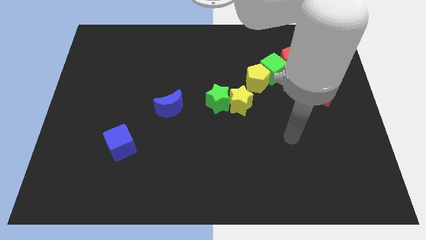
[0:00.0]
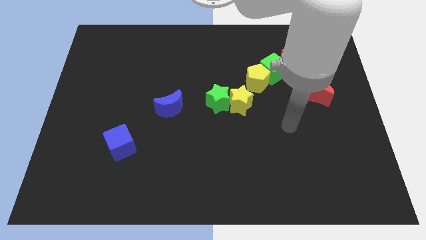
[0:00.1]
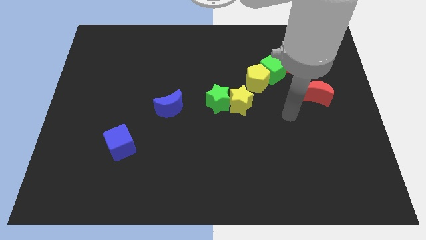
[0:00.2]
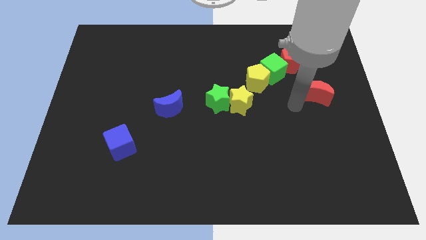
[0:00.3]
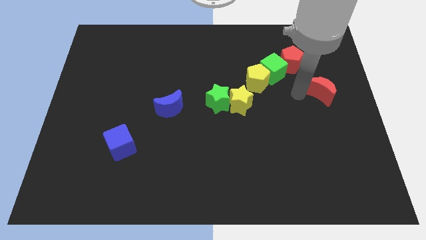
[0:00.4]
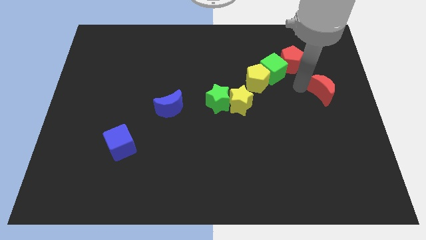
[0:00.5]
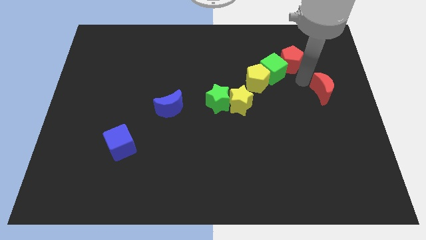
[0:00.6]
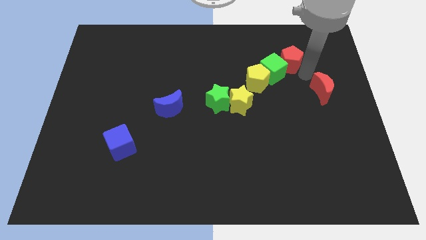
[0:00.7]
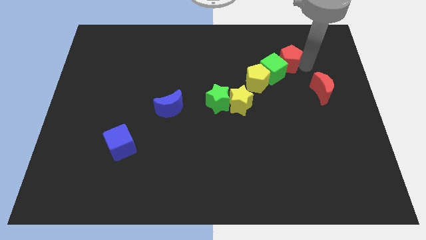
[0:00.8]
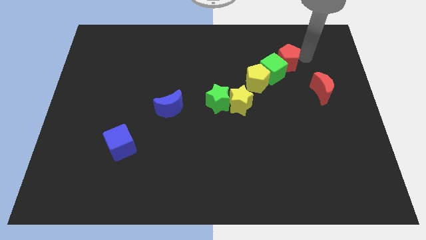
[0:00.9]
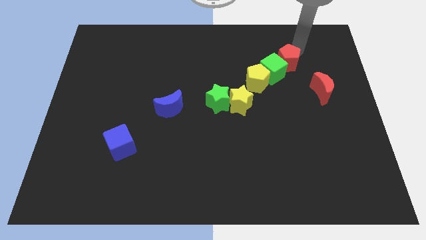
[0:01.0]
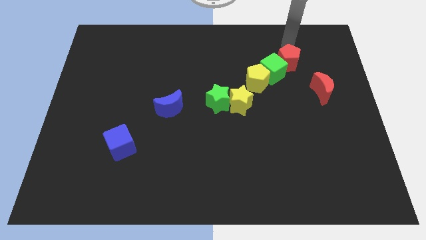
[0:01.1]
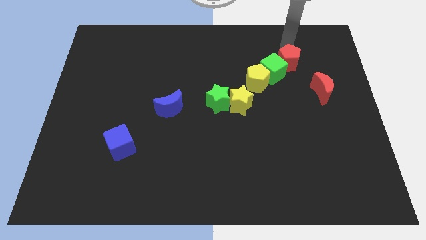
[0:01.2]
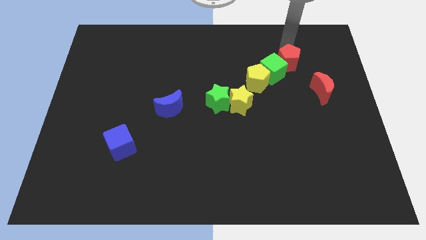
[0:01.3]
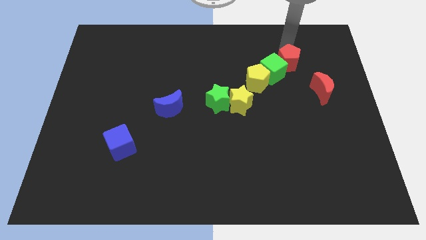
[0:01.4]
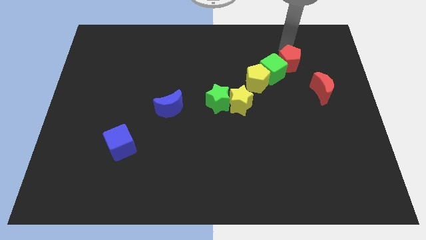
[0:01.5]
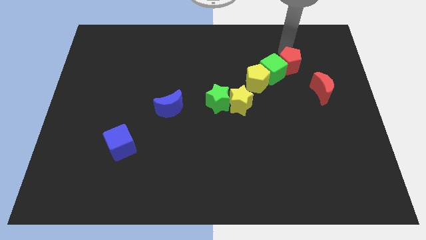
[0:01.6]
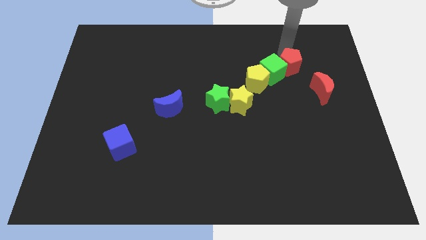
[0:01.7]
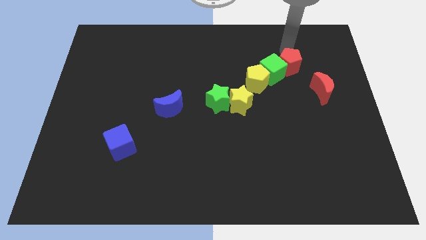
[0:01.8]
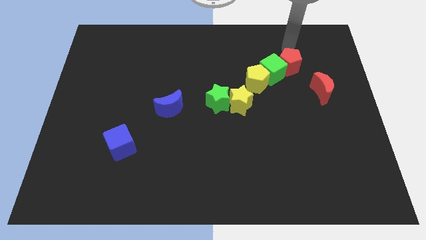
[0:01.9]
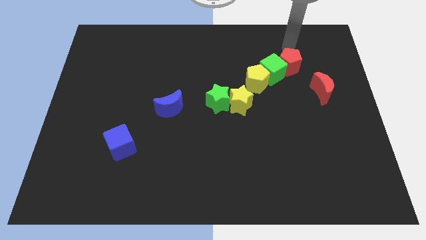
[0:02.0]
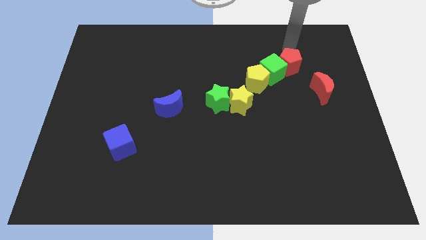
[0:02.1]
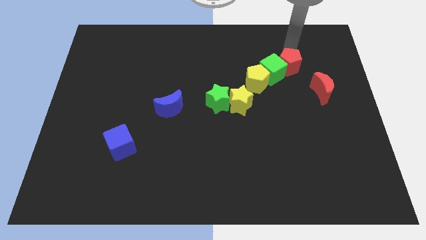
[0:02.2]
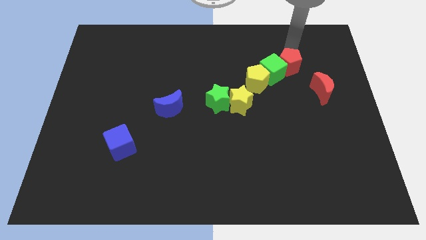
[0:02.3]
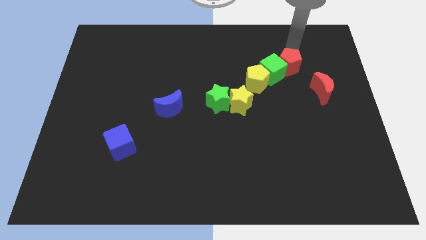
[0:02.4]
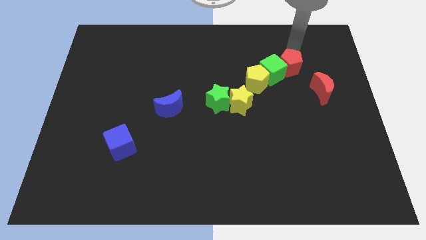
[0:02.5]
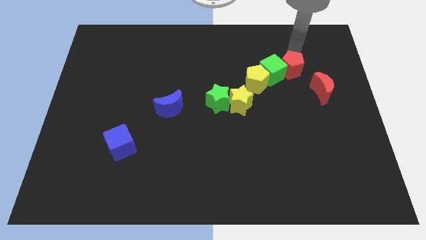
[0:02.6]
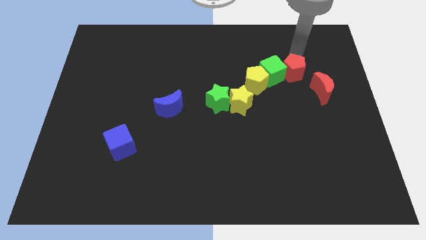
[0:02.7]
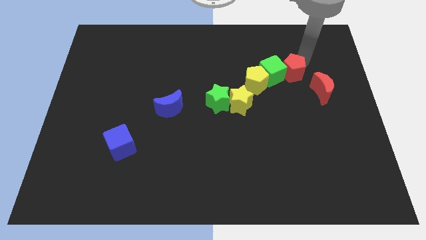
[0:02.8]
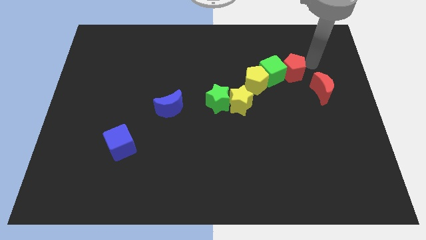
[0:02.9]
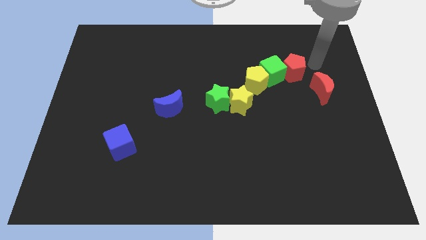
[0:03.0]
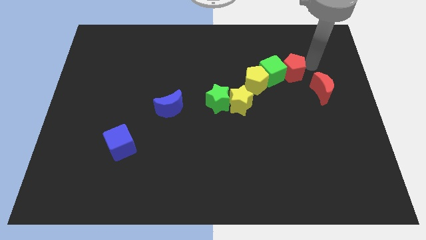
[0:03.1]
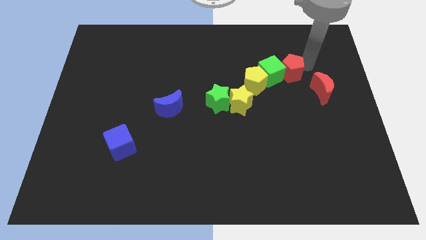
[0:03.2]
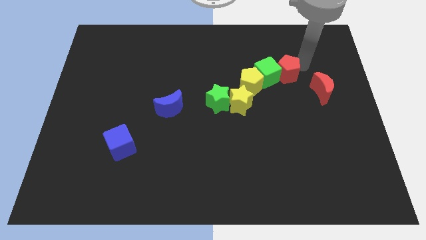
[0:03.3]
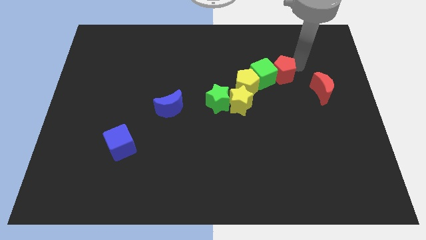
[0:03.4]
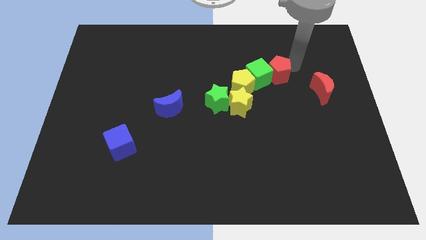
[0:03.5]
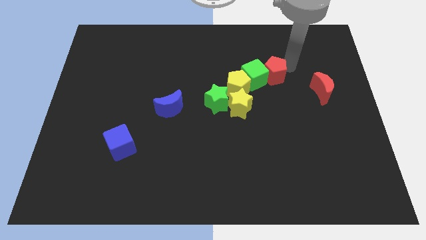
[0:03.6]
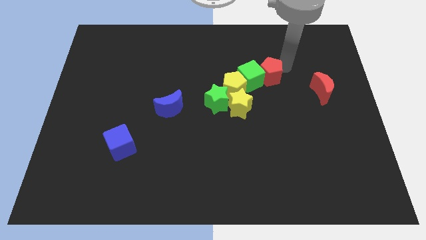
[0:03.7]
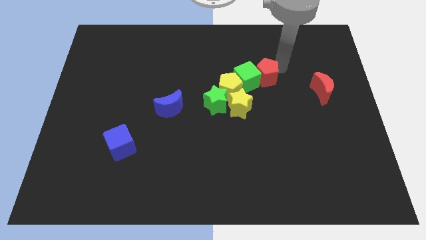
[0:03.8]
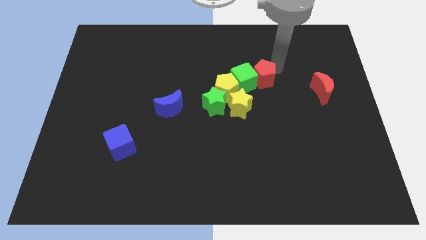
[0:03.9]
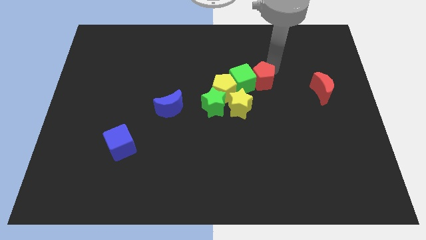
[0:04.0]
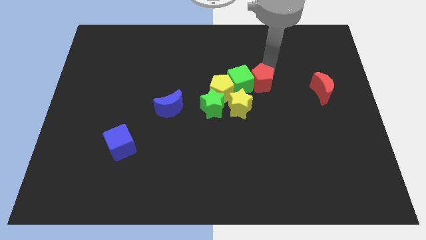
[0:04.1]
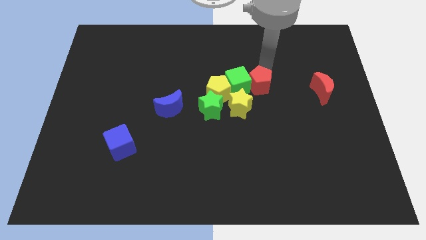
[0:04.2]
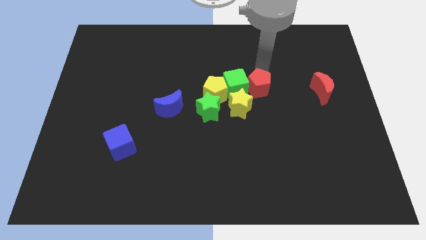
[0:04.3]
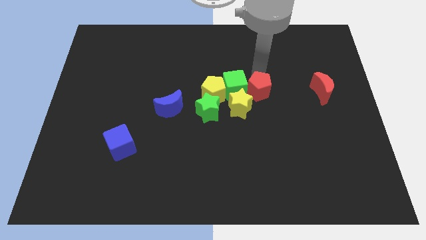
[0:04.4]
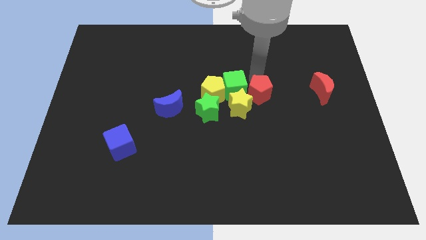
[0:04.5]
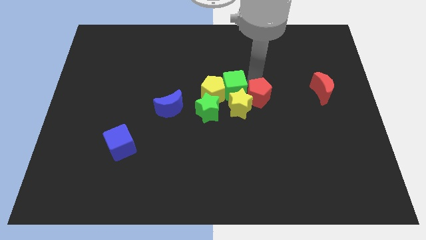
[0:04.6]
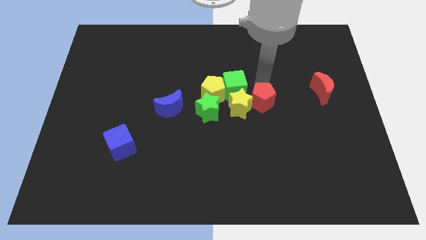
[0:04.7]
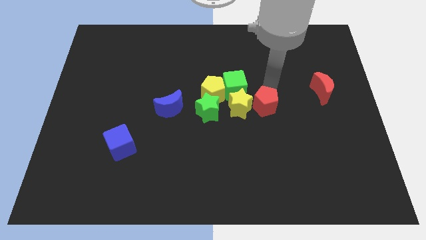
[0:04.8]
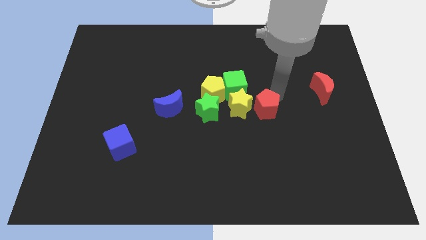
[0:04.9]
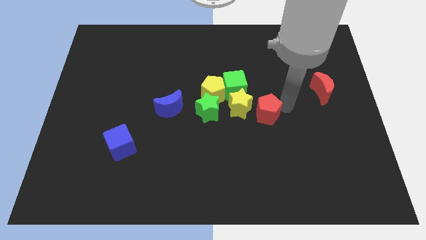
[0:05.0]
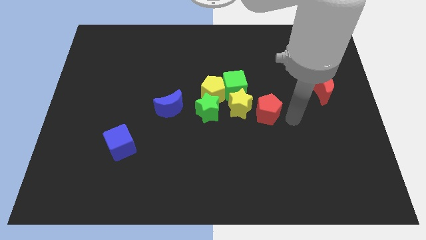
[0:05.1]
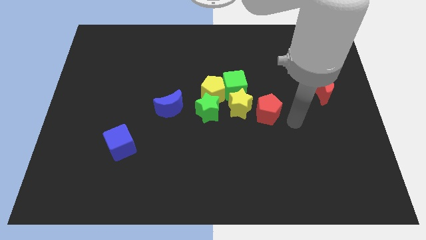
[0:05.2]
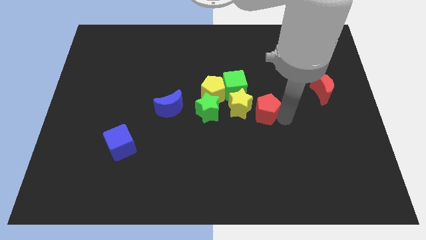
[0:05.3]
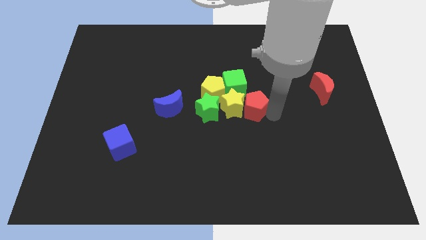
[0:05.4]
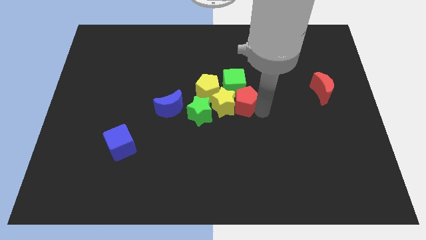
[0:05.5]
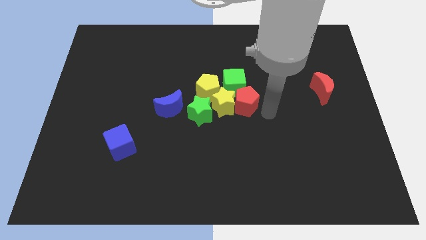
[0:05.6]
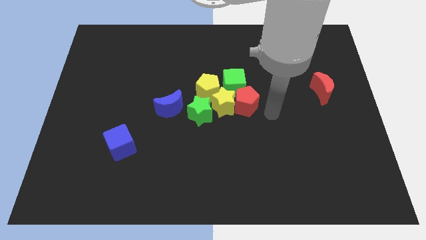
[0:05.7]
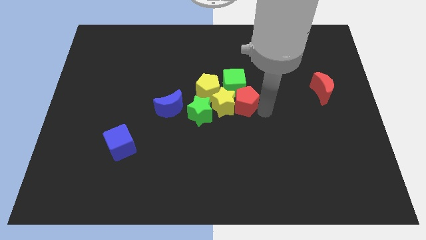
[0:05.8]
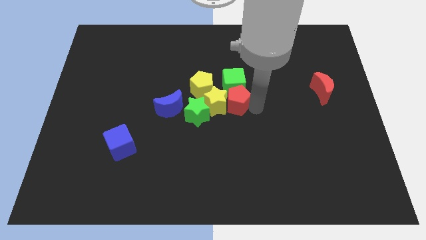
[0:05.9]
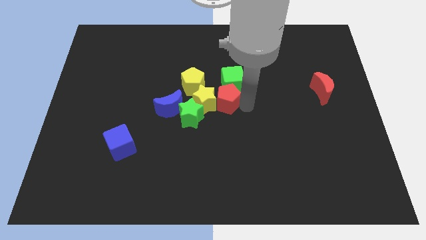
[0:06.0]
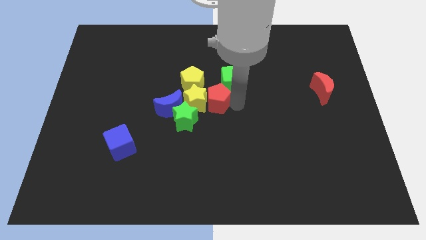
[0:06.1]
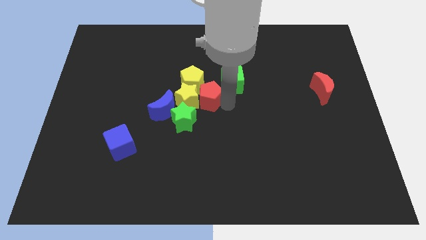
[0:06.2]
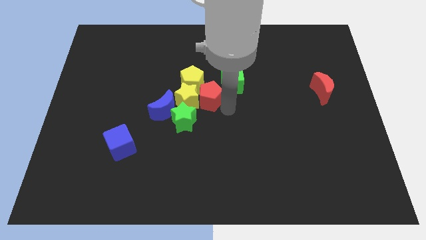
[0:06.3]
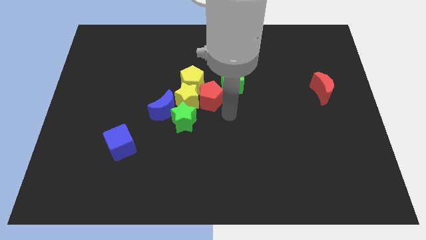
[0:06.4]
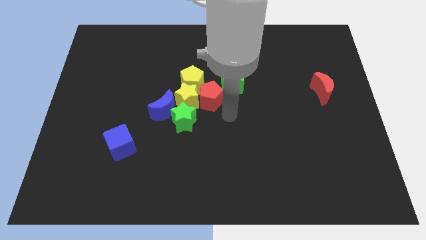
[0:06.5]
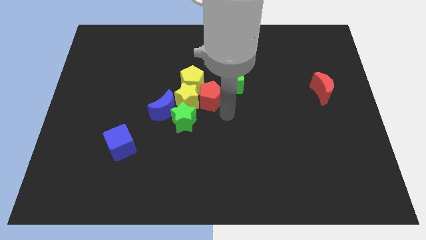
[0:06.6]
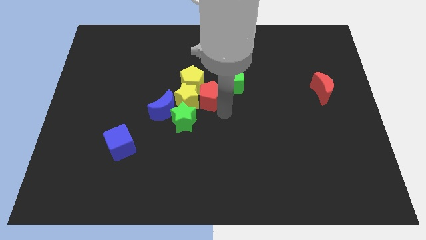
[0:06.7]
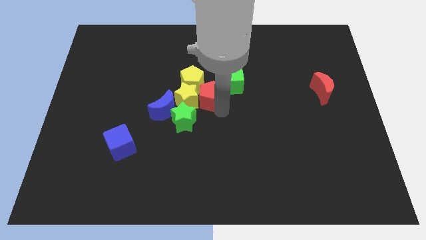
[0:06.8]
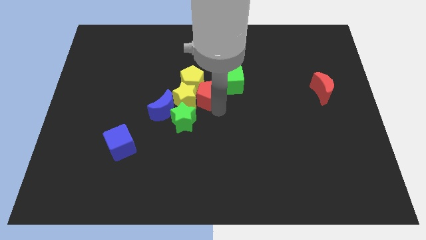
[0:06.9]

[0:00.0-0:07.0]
put the red pentagon to the yellow pentagon
